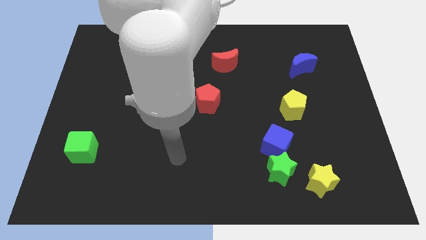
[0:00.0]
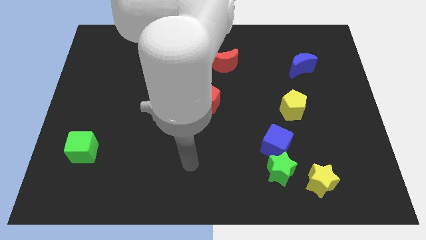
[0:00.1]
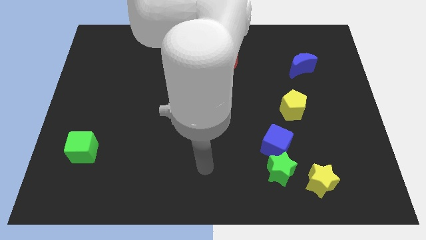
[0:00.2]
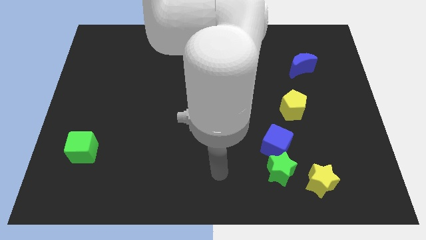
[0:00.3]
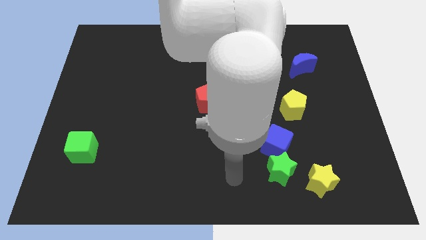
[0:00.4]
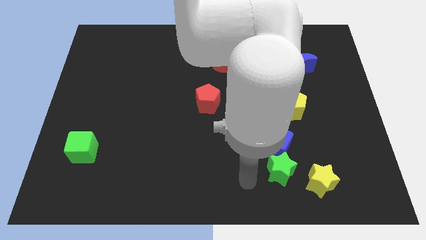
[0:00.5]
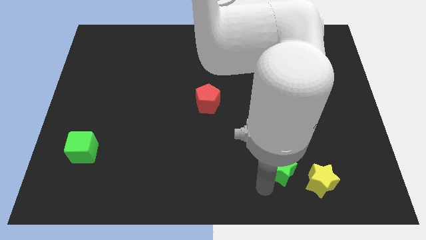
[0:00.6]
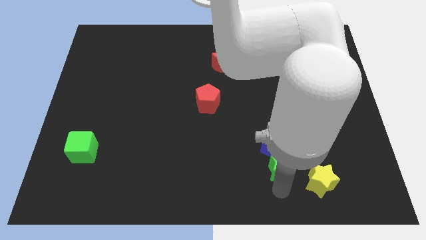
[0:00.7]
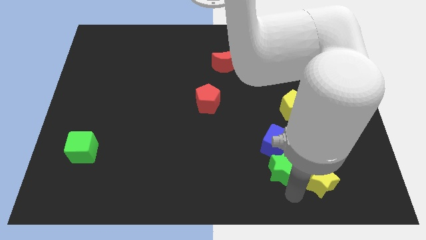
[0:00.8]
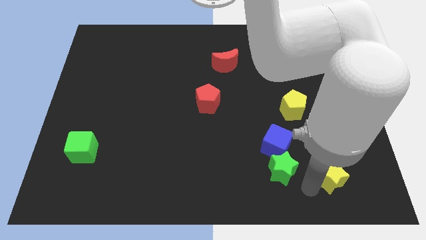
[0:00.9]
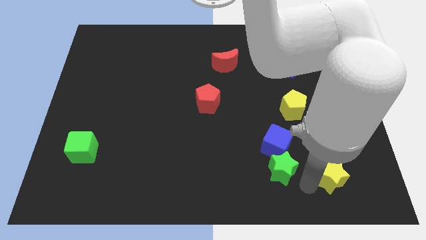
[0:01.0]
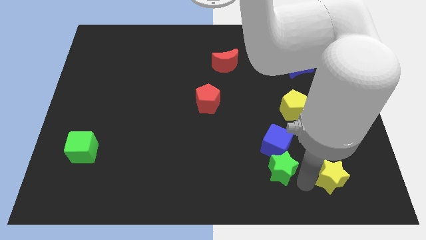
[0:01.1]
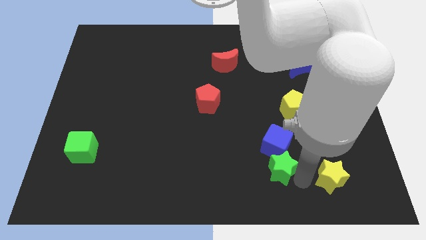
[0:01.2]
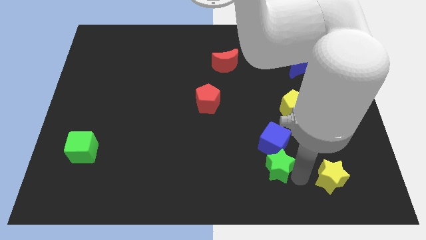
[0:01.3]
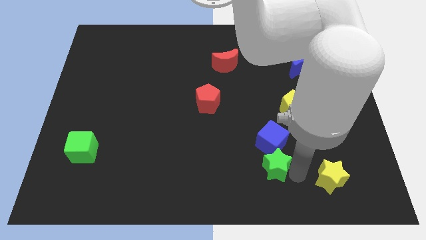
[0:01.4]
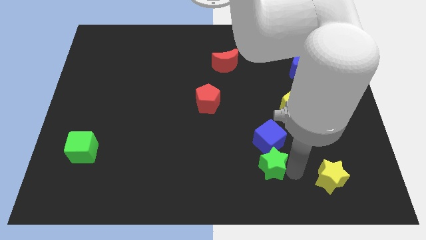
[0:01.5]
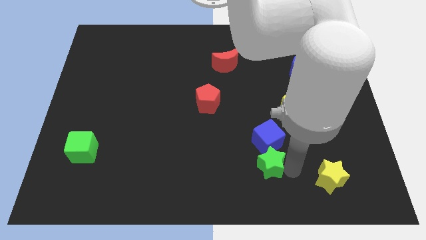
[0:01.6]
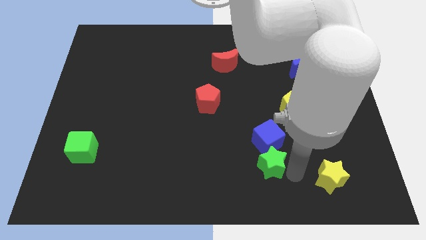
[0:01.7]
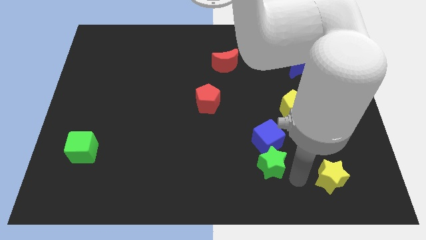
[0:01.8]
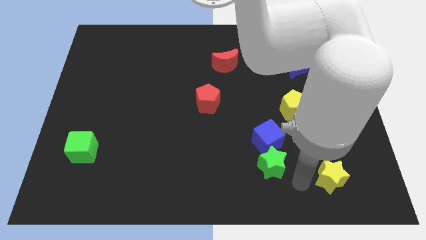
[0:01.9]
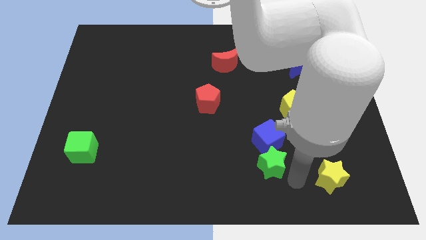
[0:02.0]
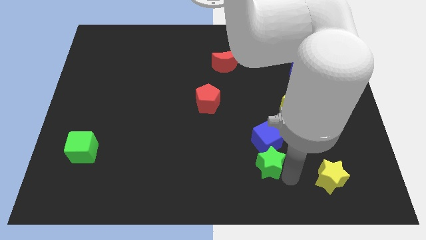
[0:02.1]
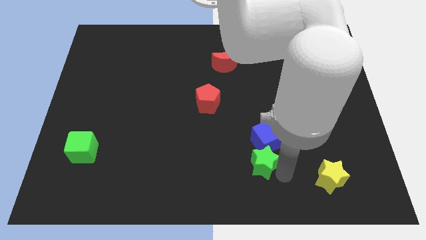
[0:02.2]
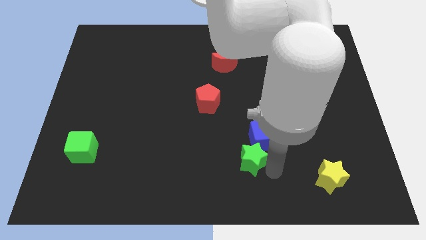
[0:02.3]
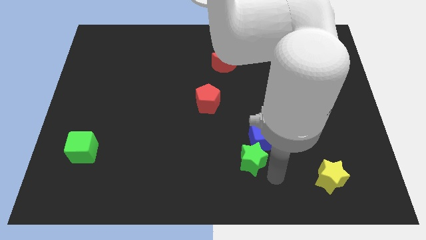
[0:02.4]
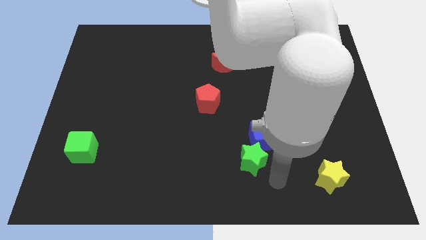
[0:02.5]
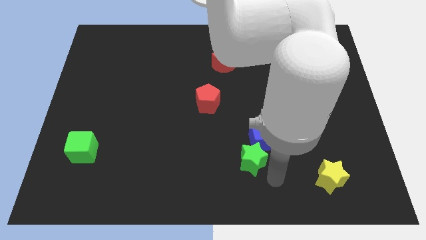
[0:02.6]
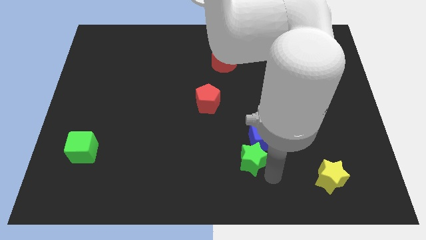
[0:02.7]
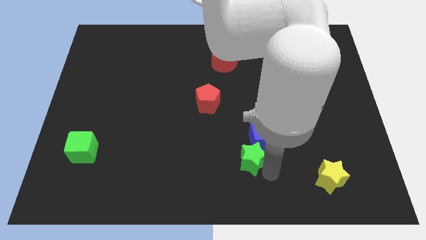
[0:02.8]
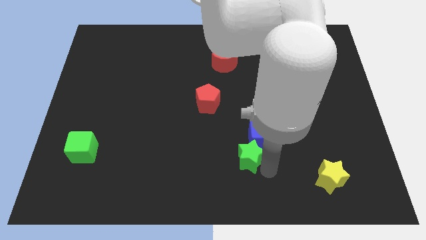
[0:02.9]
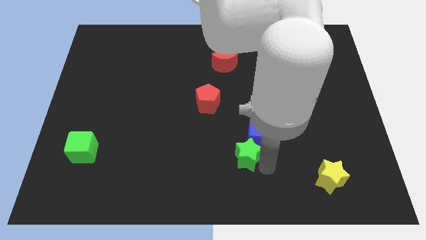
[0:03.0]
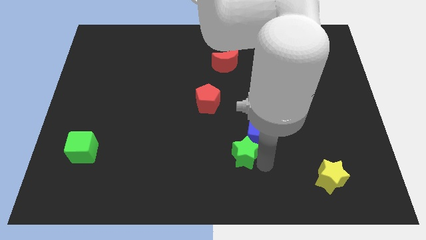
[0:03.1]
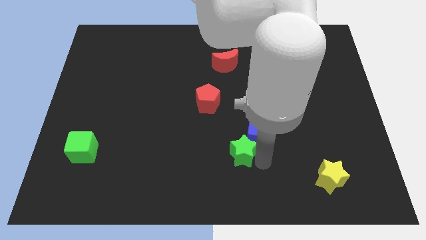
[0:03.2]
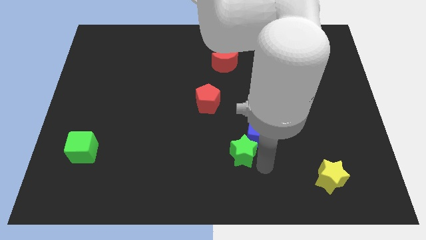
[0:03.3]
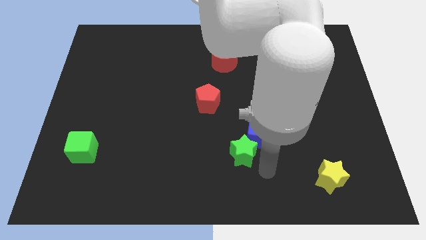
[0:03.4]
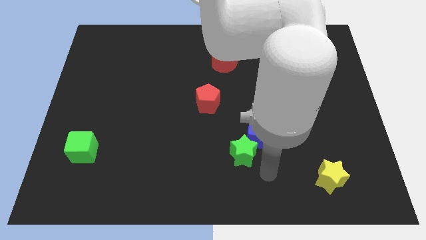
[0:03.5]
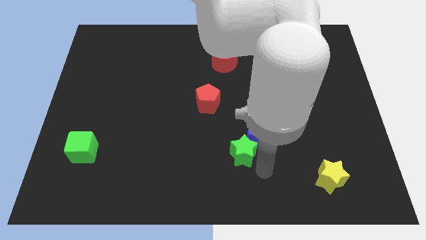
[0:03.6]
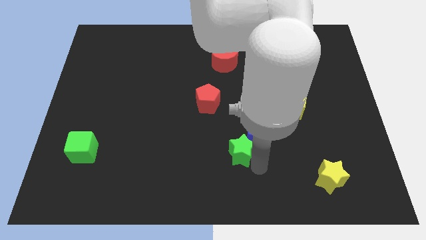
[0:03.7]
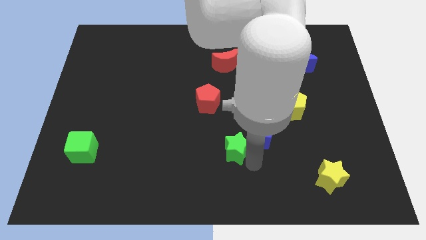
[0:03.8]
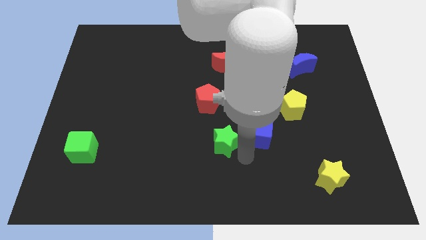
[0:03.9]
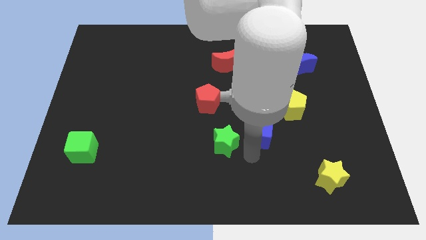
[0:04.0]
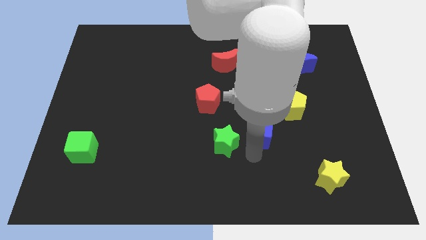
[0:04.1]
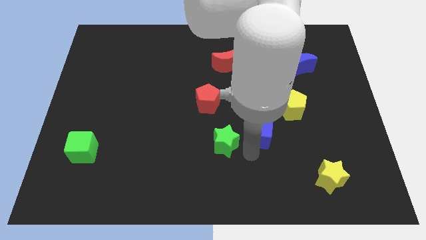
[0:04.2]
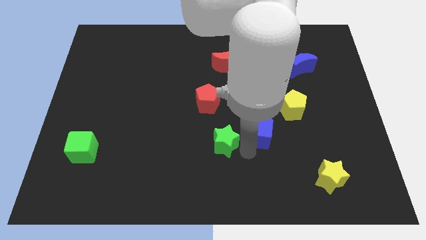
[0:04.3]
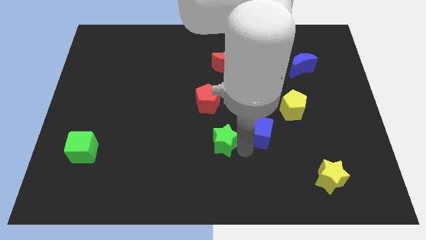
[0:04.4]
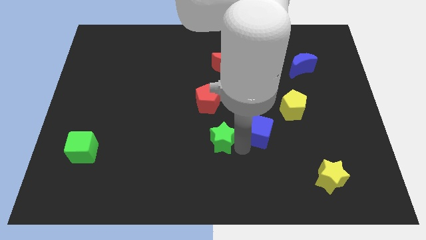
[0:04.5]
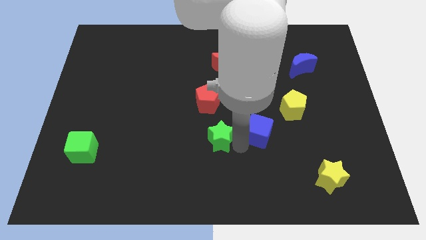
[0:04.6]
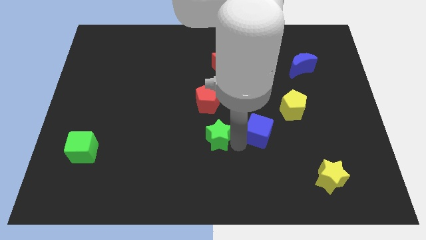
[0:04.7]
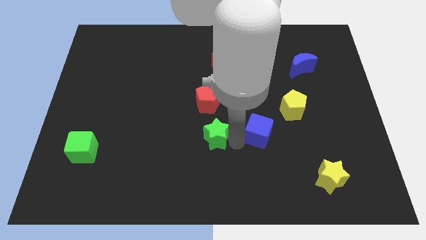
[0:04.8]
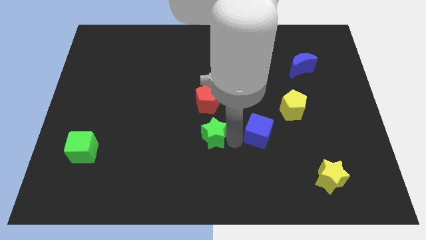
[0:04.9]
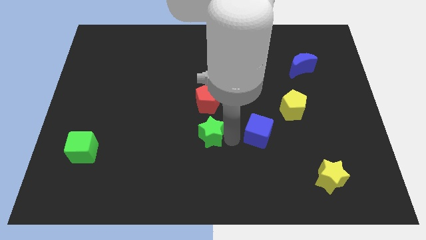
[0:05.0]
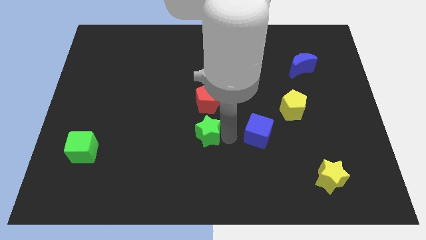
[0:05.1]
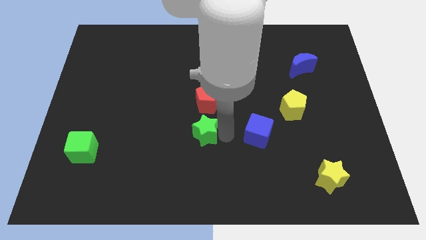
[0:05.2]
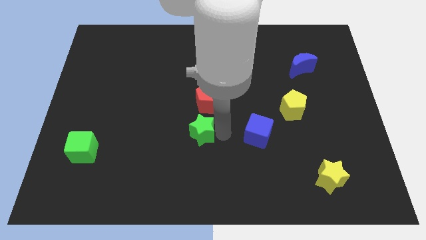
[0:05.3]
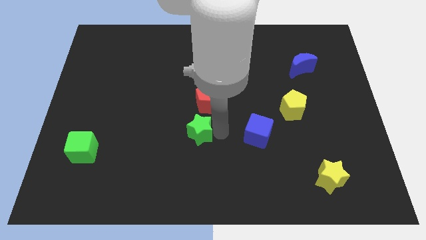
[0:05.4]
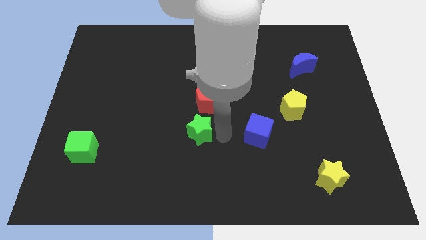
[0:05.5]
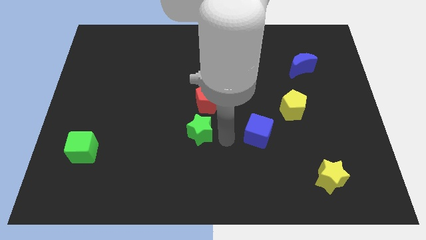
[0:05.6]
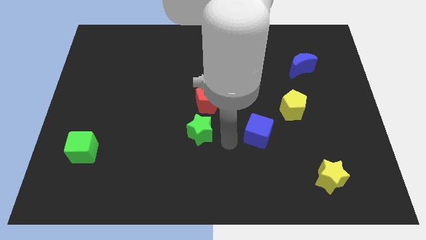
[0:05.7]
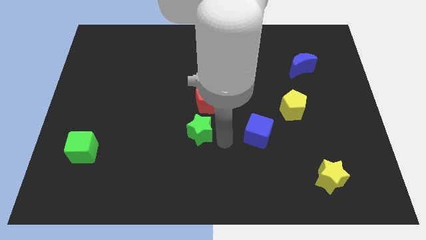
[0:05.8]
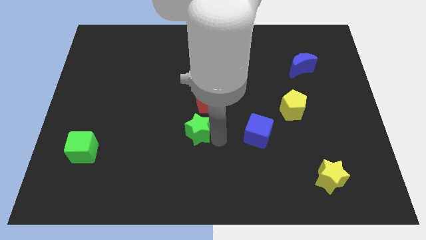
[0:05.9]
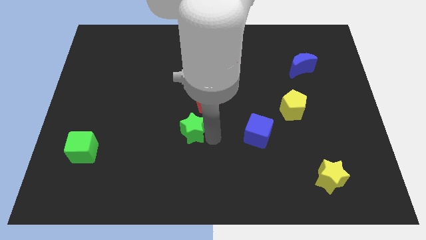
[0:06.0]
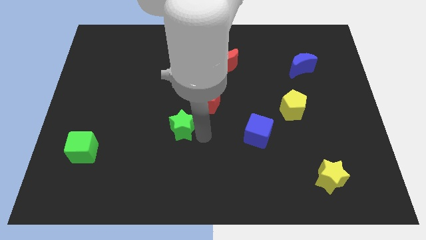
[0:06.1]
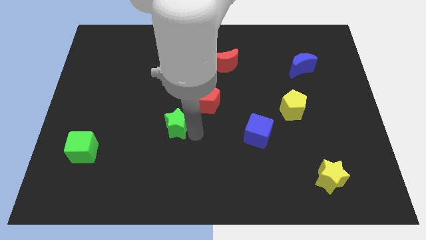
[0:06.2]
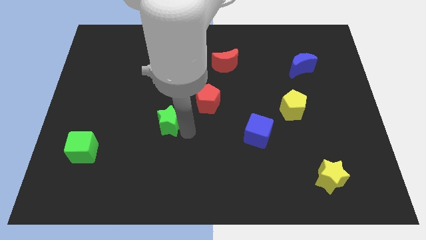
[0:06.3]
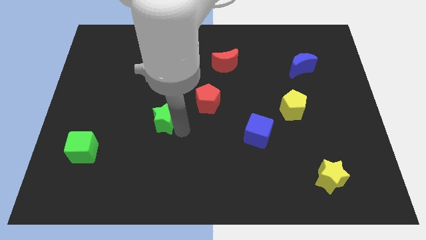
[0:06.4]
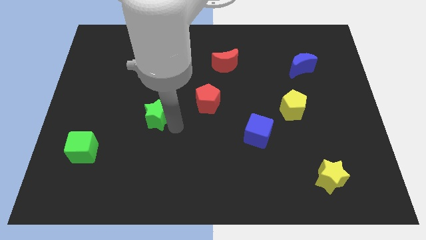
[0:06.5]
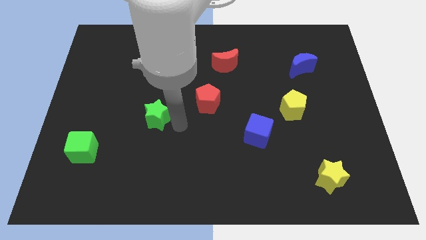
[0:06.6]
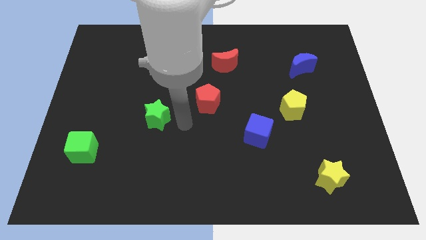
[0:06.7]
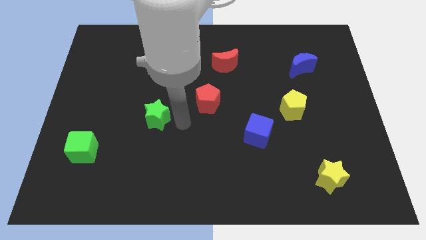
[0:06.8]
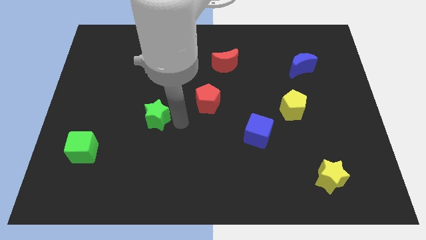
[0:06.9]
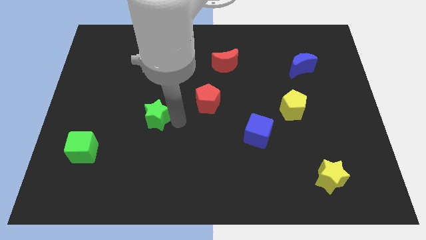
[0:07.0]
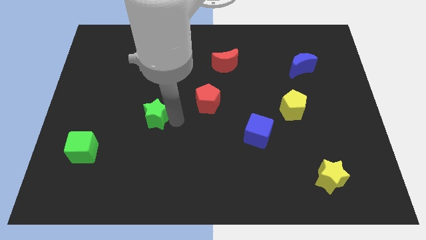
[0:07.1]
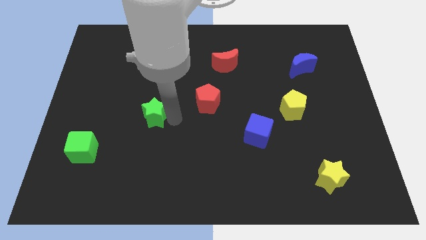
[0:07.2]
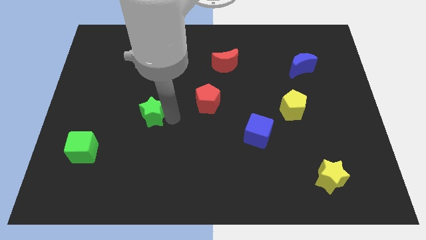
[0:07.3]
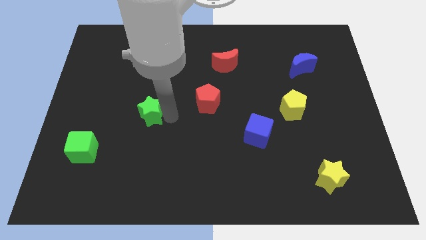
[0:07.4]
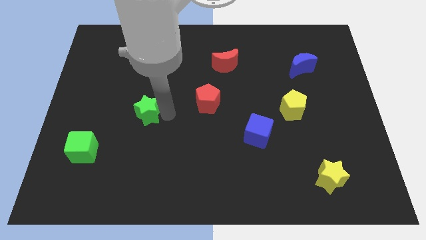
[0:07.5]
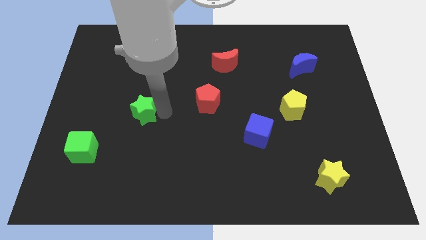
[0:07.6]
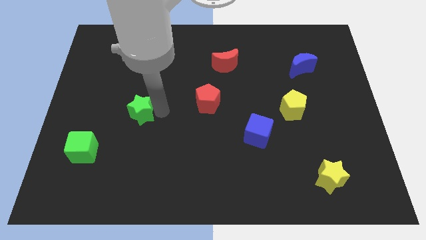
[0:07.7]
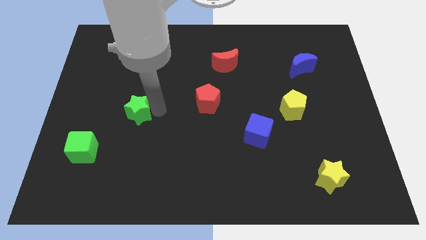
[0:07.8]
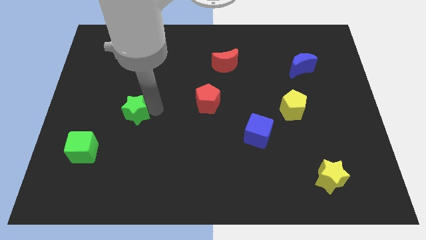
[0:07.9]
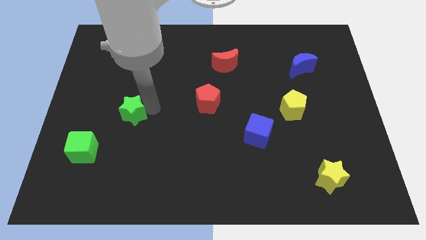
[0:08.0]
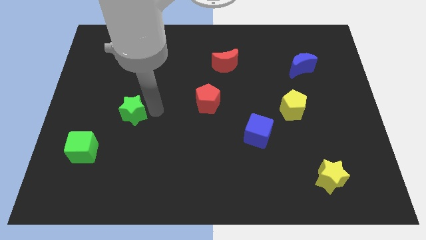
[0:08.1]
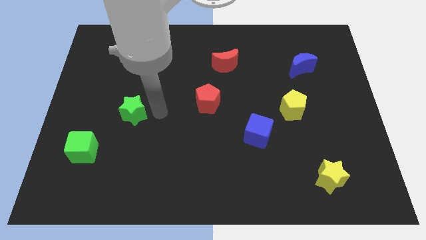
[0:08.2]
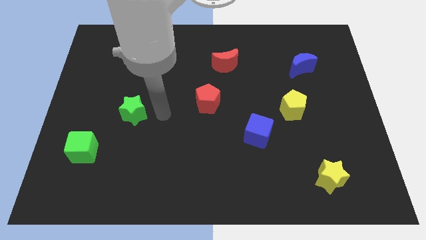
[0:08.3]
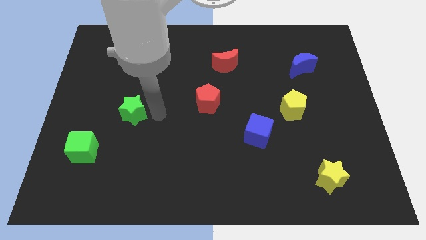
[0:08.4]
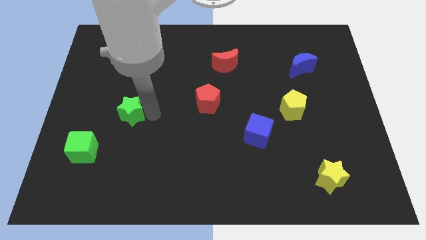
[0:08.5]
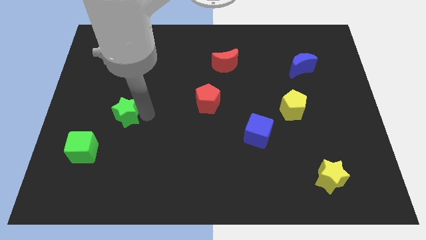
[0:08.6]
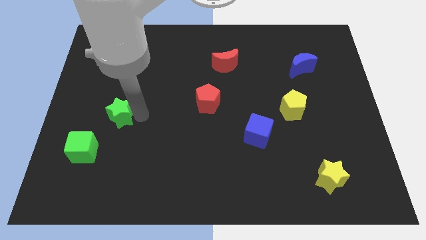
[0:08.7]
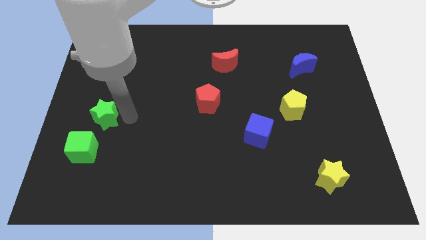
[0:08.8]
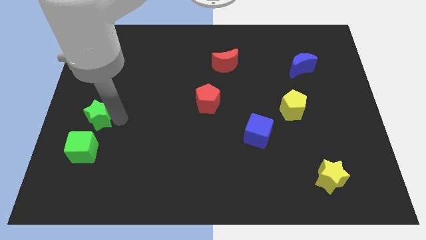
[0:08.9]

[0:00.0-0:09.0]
put the green star to the center left
